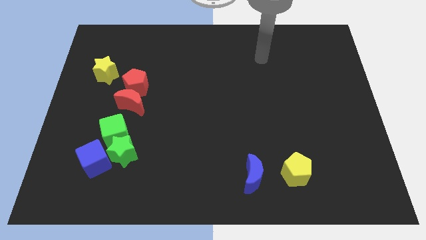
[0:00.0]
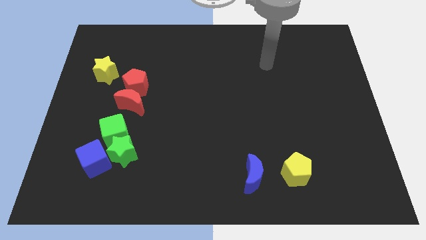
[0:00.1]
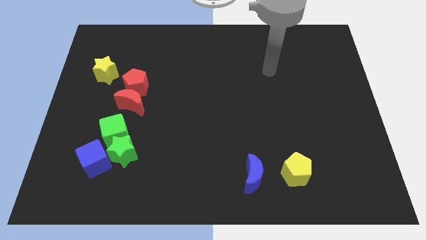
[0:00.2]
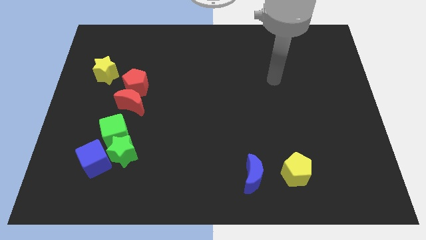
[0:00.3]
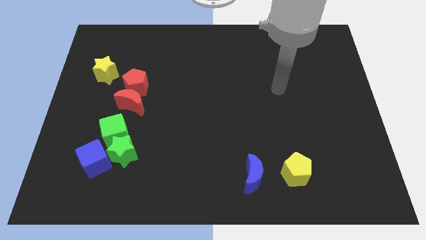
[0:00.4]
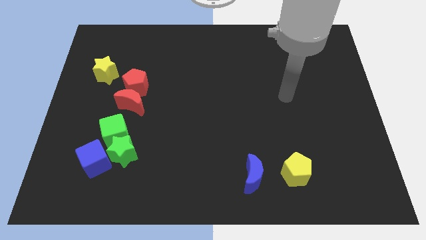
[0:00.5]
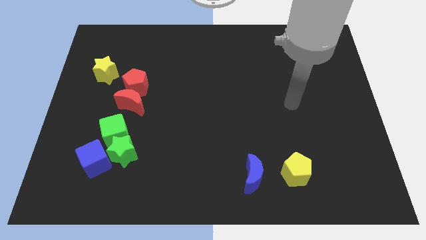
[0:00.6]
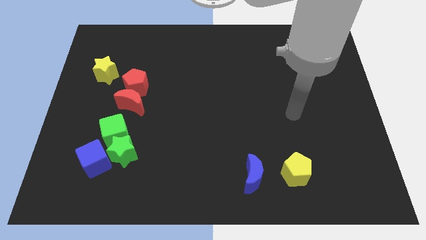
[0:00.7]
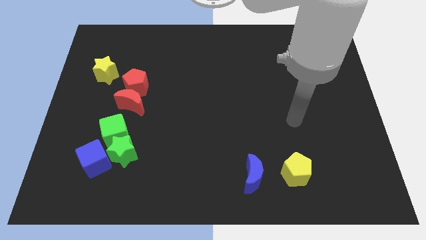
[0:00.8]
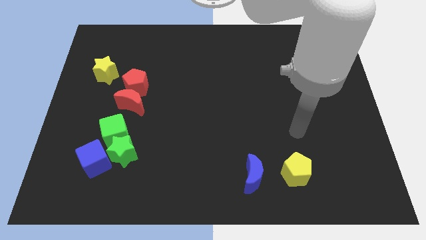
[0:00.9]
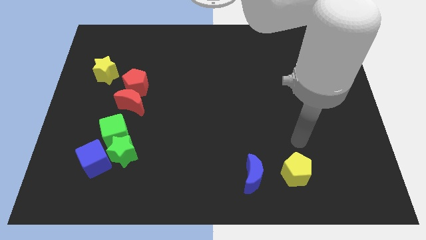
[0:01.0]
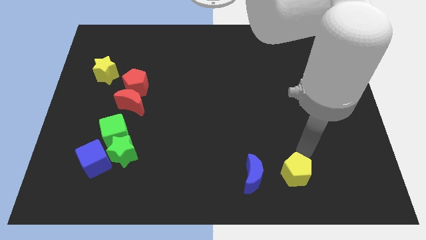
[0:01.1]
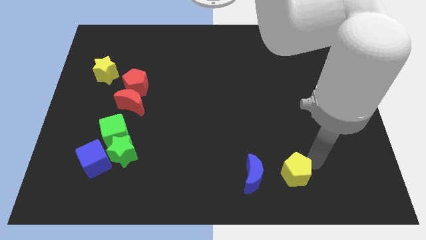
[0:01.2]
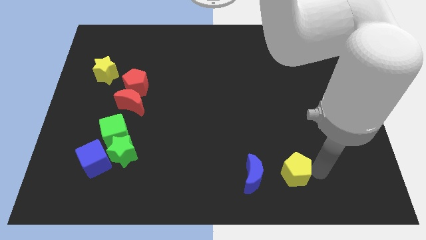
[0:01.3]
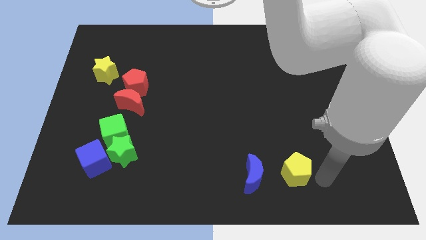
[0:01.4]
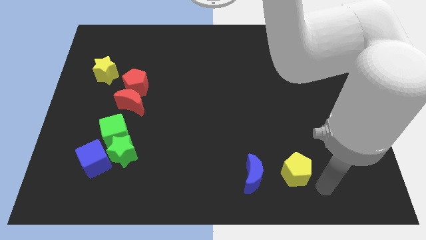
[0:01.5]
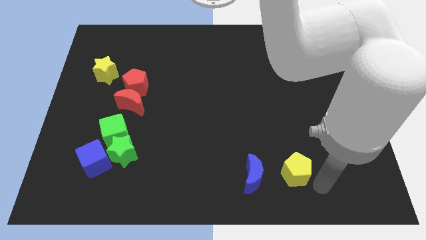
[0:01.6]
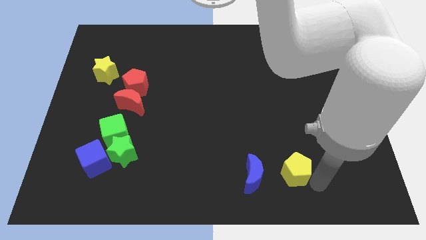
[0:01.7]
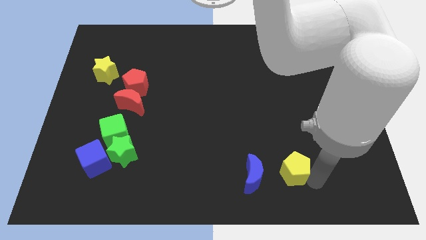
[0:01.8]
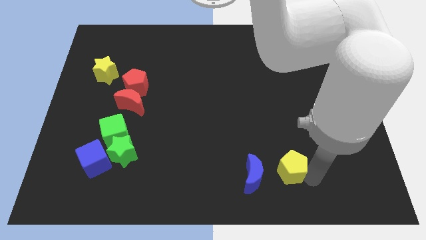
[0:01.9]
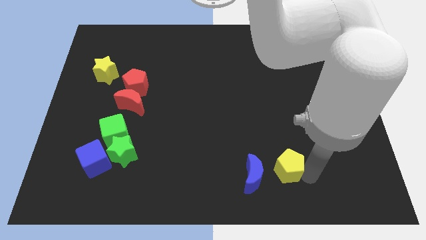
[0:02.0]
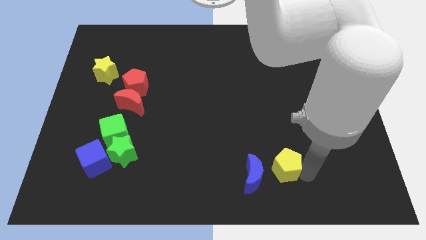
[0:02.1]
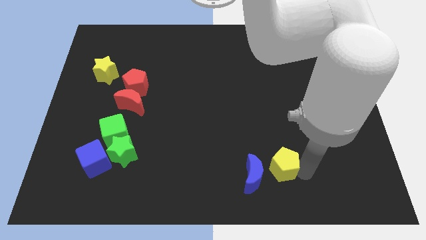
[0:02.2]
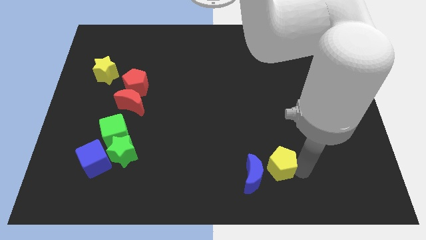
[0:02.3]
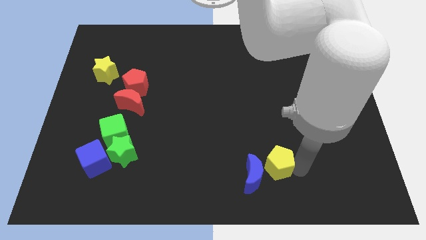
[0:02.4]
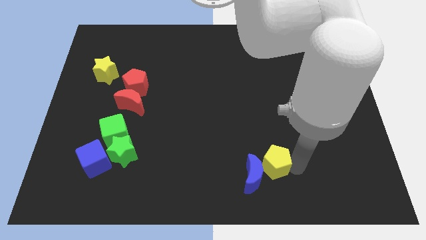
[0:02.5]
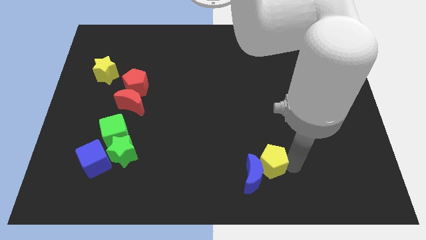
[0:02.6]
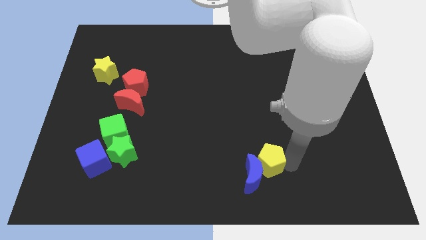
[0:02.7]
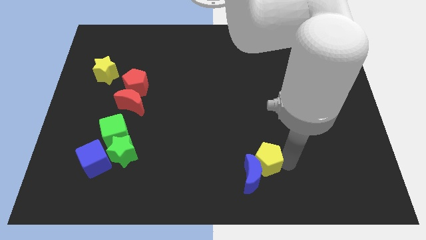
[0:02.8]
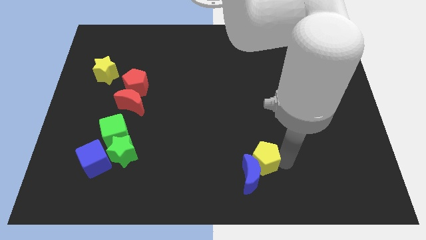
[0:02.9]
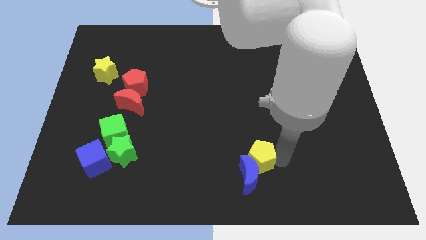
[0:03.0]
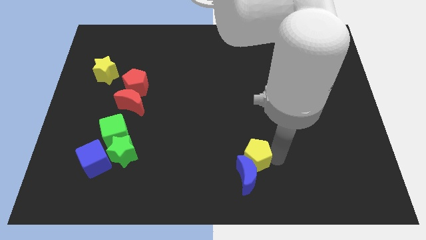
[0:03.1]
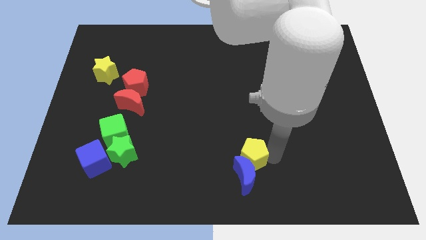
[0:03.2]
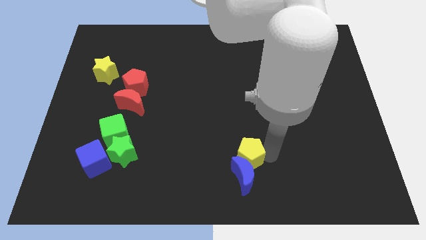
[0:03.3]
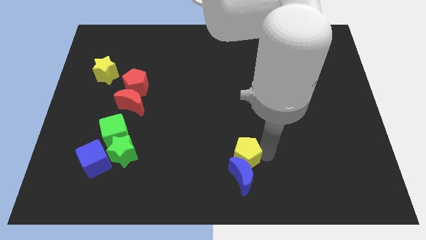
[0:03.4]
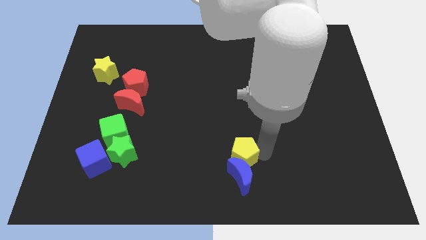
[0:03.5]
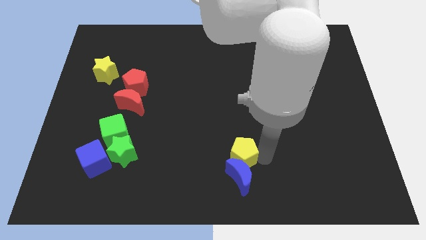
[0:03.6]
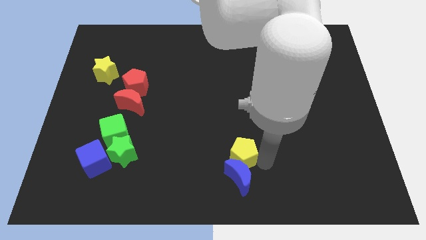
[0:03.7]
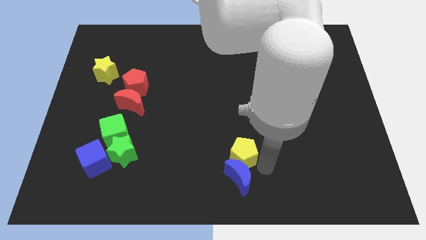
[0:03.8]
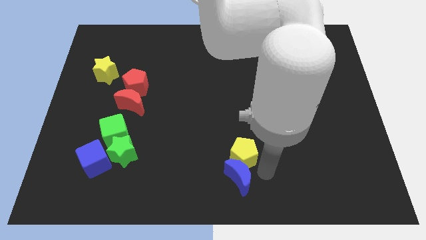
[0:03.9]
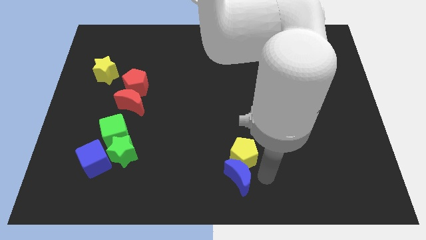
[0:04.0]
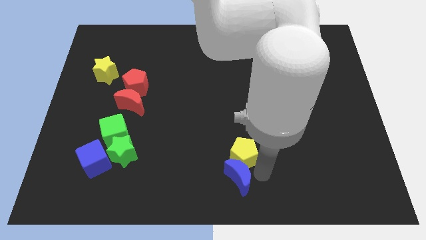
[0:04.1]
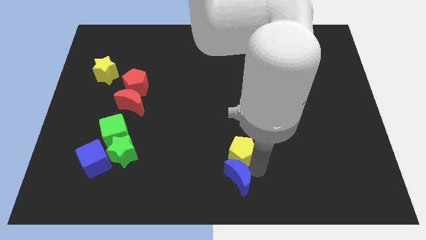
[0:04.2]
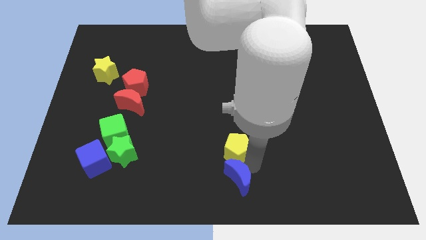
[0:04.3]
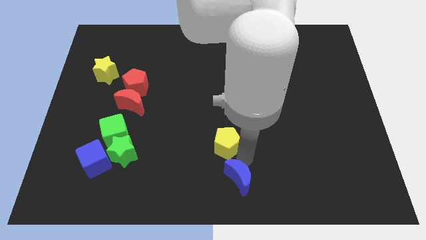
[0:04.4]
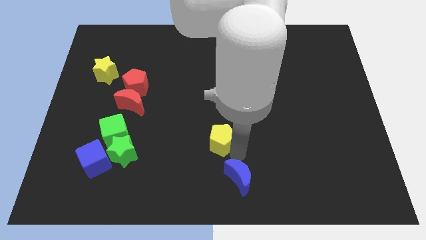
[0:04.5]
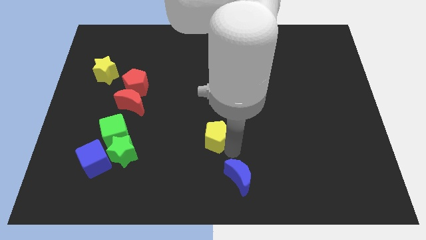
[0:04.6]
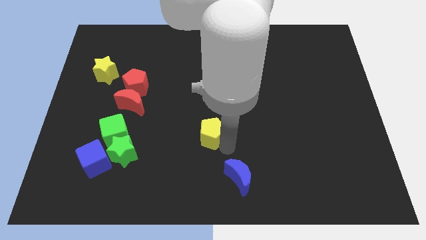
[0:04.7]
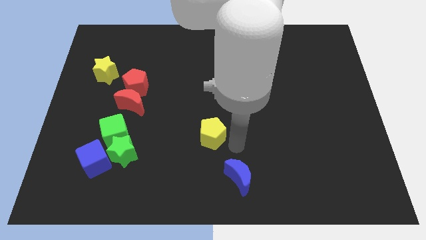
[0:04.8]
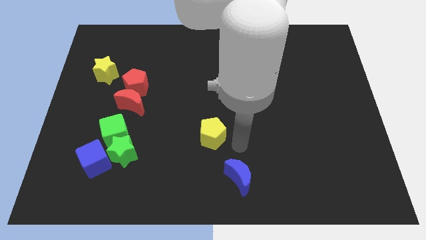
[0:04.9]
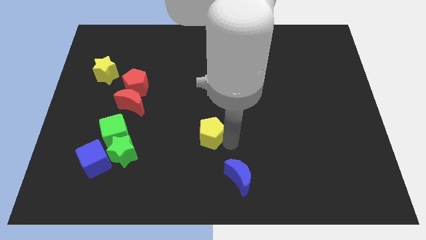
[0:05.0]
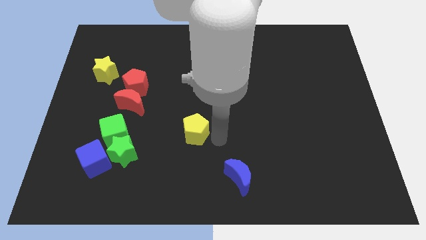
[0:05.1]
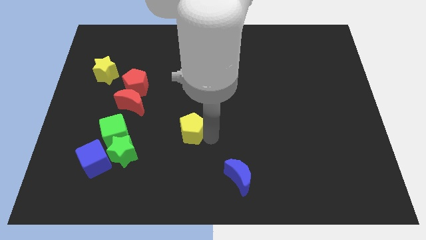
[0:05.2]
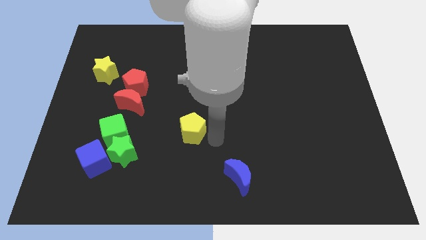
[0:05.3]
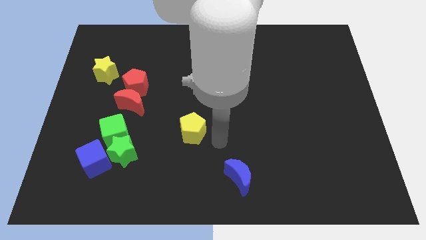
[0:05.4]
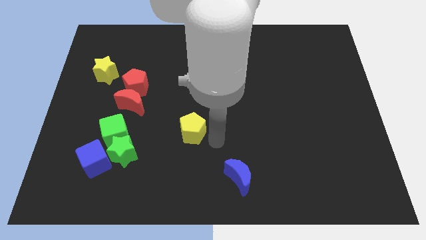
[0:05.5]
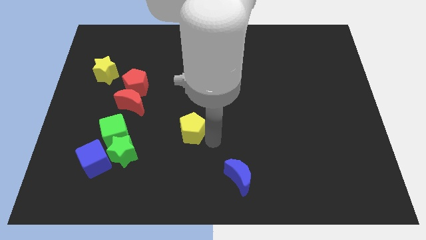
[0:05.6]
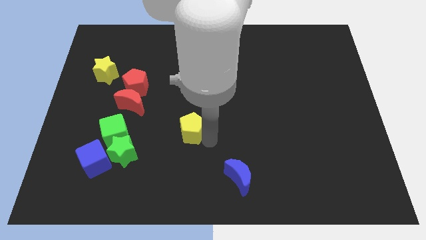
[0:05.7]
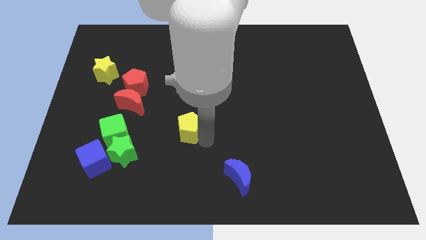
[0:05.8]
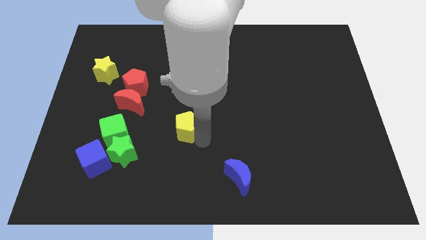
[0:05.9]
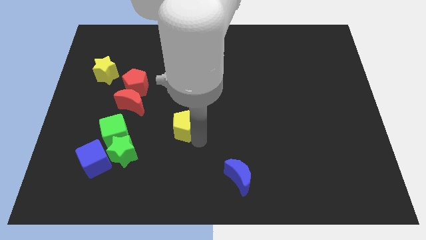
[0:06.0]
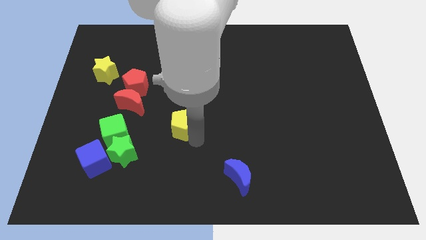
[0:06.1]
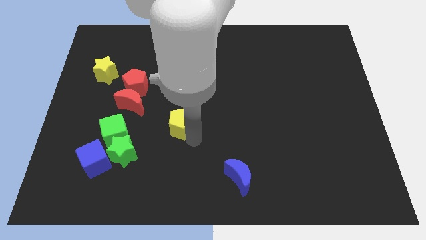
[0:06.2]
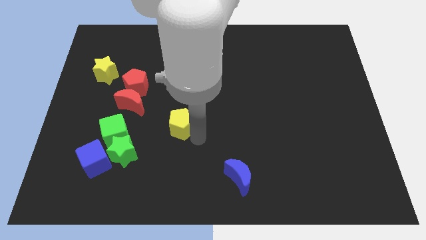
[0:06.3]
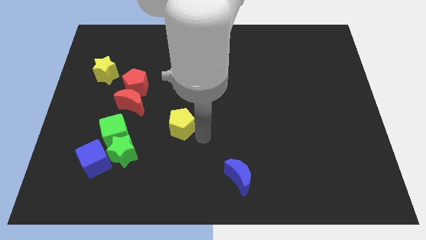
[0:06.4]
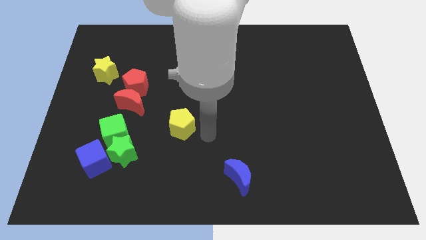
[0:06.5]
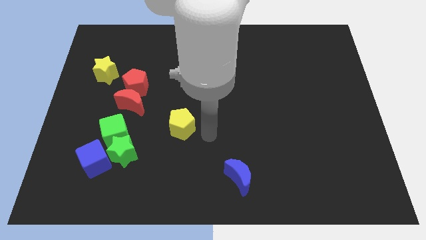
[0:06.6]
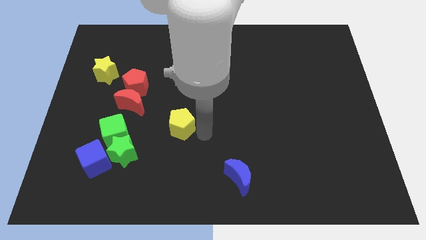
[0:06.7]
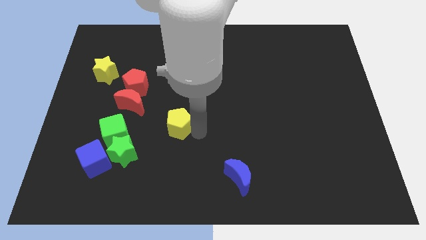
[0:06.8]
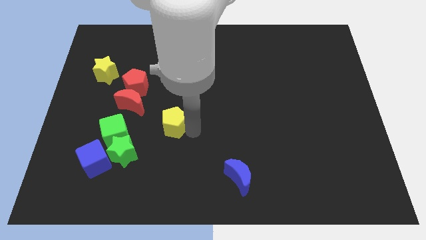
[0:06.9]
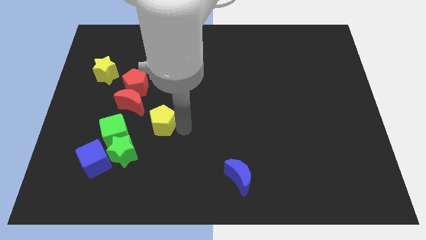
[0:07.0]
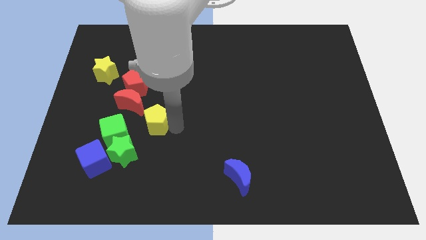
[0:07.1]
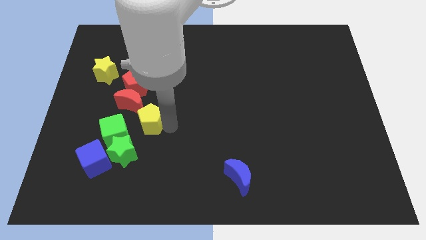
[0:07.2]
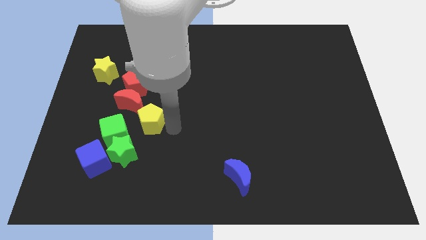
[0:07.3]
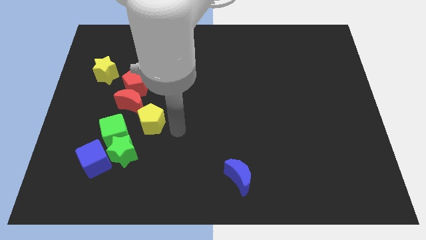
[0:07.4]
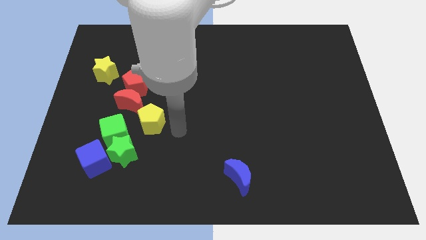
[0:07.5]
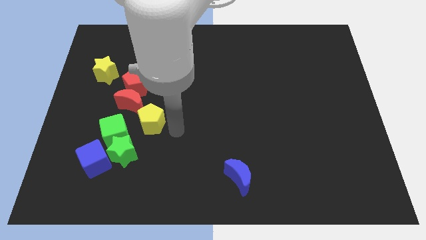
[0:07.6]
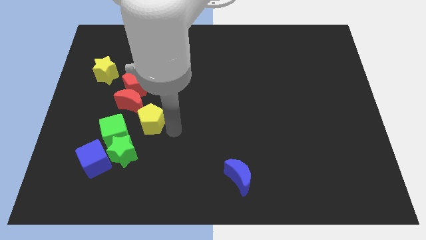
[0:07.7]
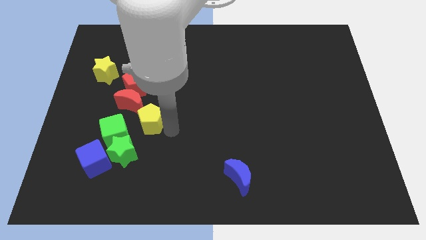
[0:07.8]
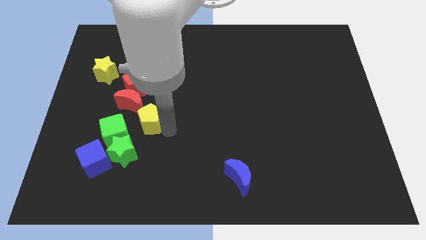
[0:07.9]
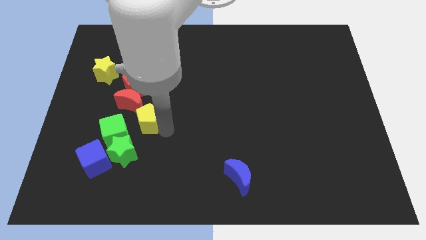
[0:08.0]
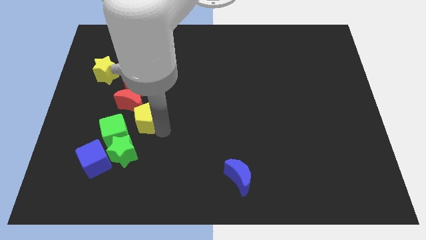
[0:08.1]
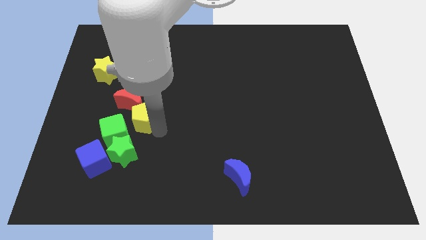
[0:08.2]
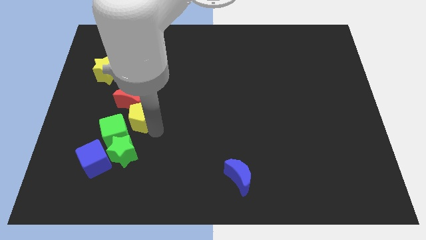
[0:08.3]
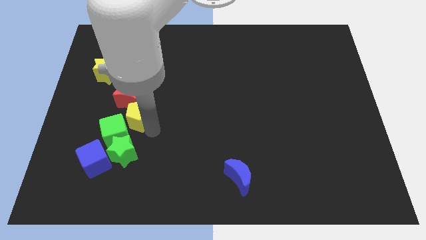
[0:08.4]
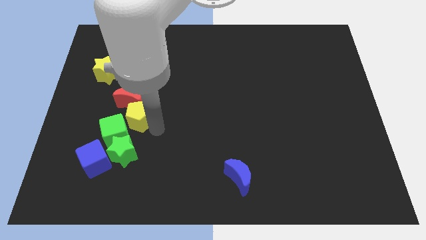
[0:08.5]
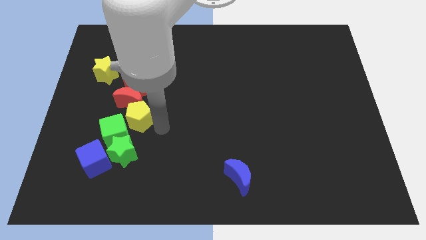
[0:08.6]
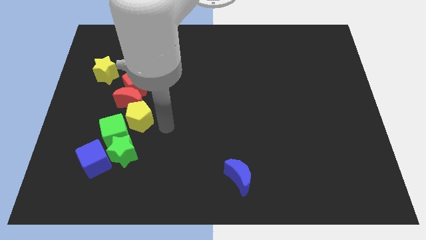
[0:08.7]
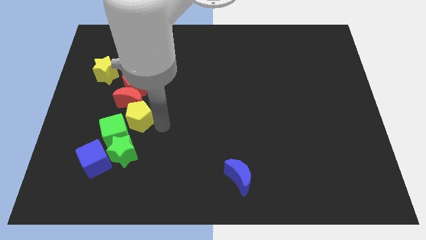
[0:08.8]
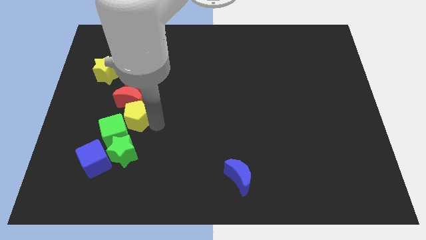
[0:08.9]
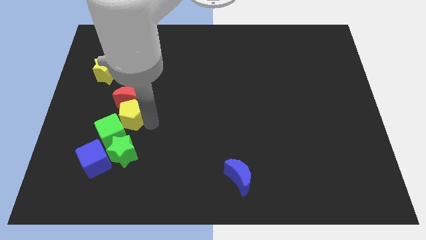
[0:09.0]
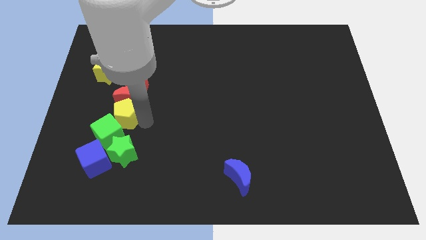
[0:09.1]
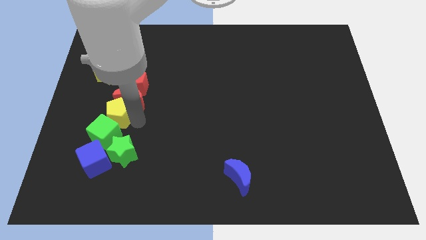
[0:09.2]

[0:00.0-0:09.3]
slide the yellow pentagon to the bottom left of the red pentagon
